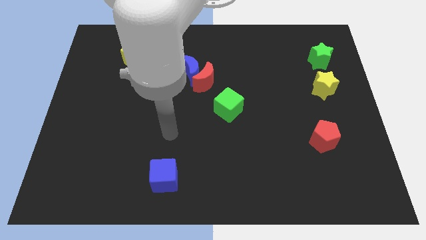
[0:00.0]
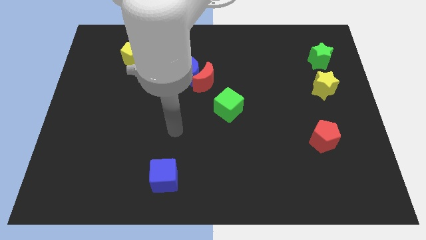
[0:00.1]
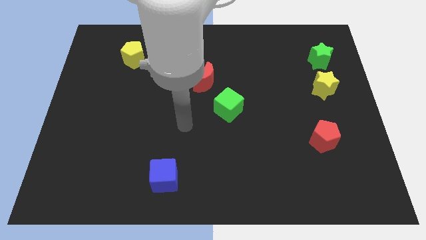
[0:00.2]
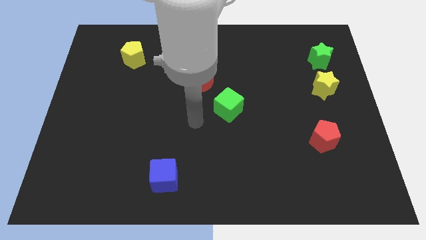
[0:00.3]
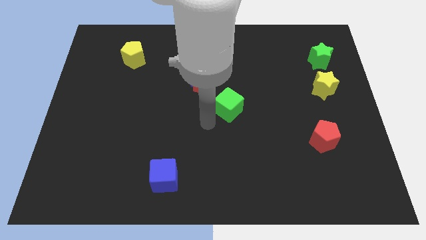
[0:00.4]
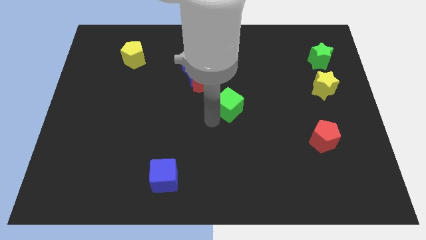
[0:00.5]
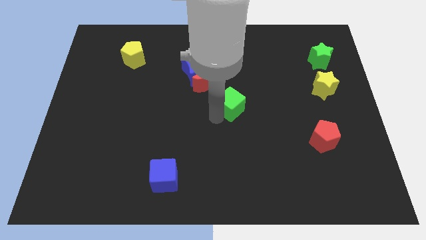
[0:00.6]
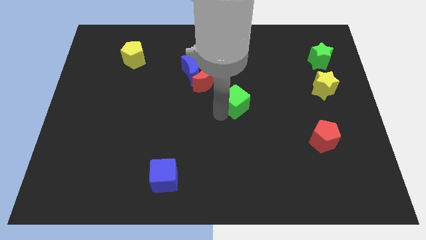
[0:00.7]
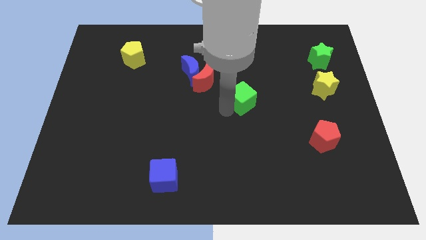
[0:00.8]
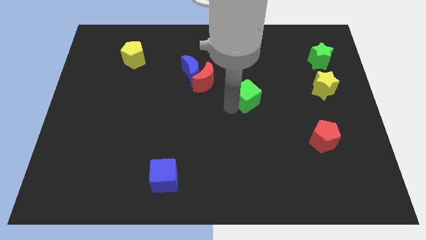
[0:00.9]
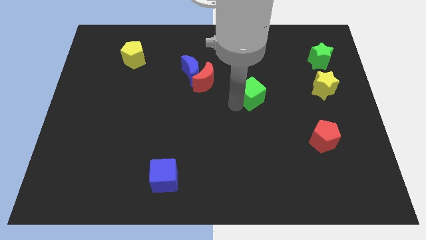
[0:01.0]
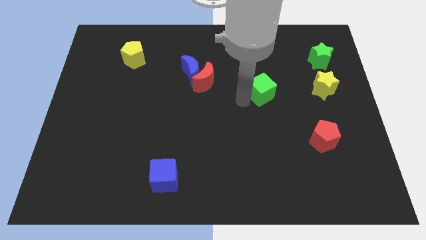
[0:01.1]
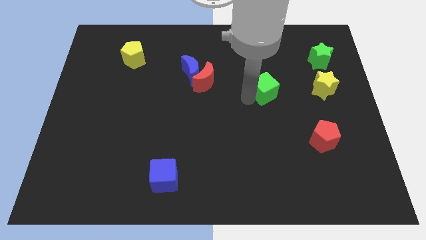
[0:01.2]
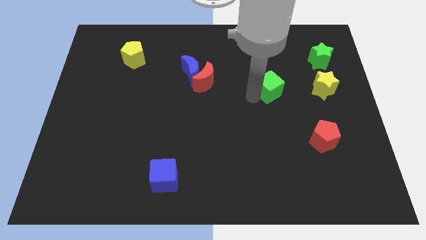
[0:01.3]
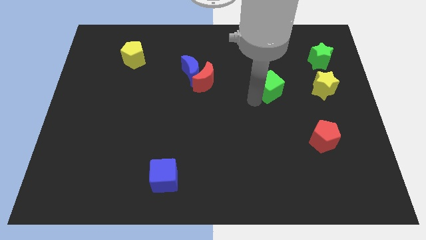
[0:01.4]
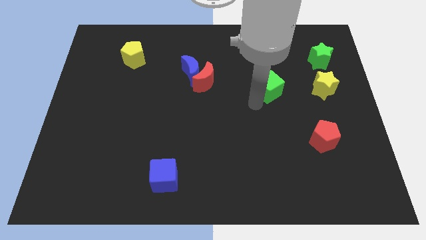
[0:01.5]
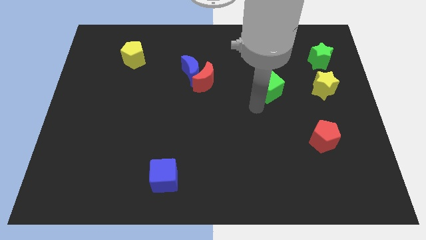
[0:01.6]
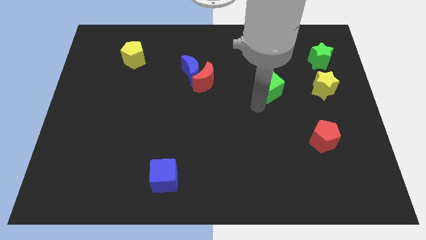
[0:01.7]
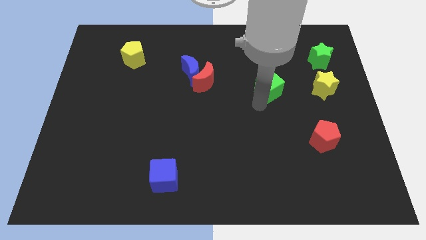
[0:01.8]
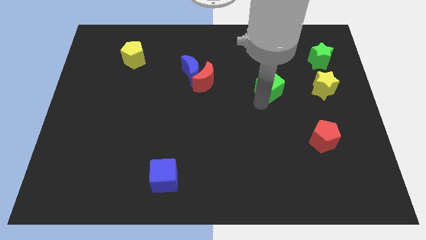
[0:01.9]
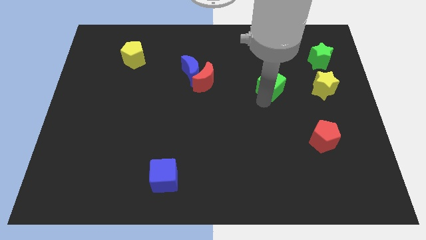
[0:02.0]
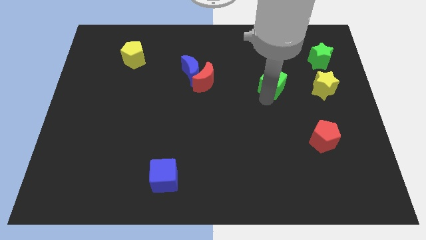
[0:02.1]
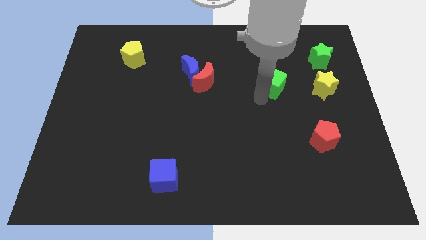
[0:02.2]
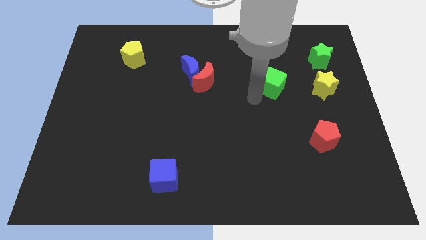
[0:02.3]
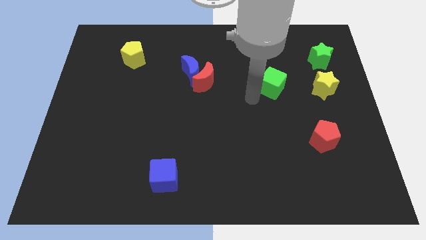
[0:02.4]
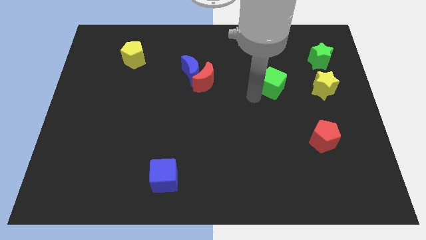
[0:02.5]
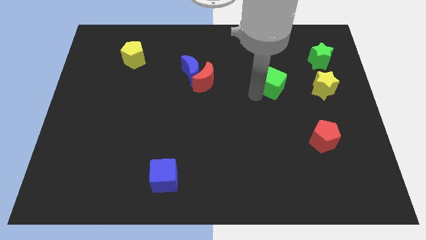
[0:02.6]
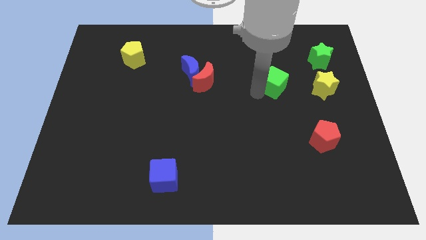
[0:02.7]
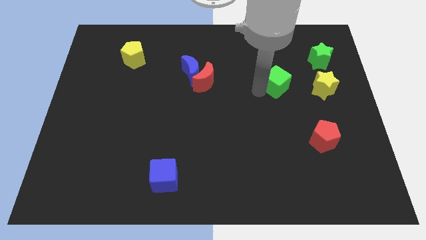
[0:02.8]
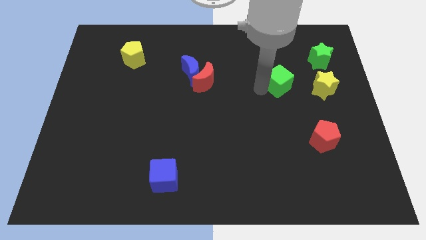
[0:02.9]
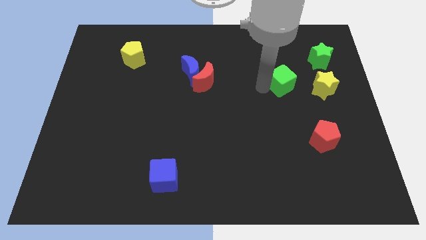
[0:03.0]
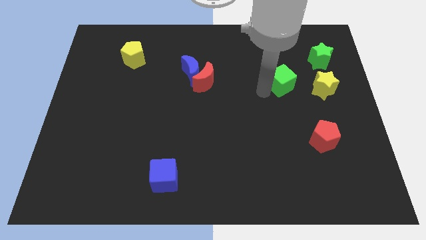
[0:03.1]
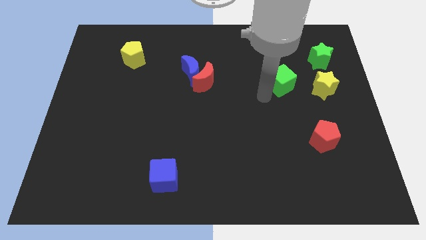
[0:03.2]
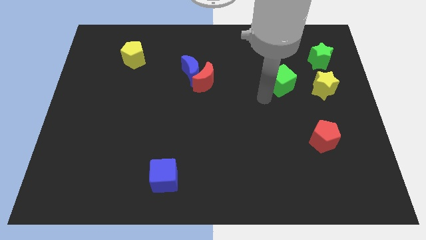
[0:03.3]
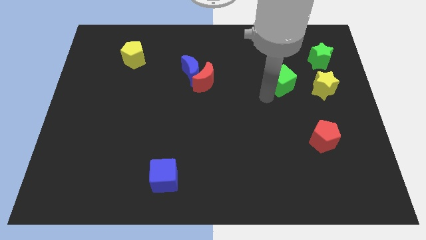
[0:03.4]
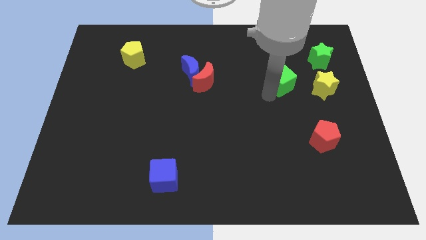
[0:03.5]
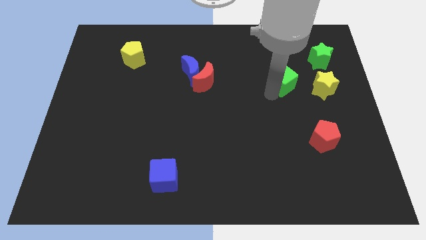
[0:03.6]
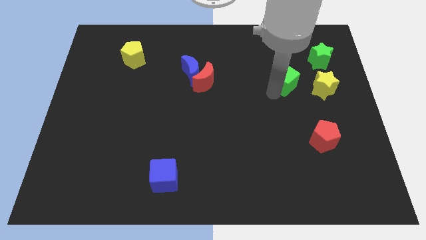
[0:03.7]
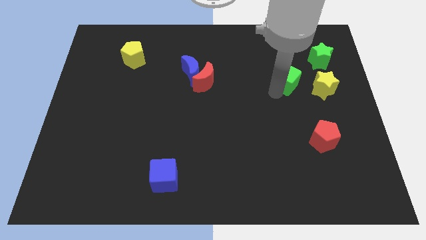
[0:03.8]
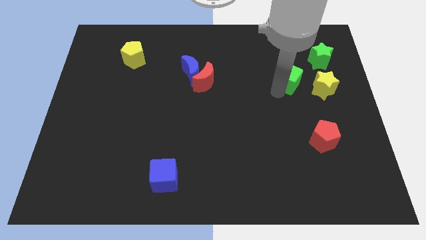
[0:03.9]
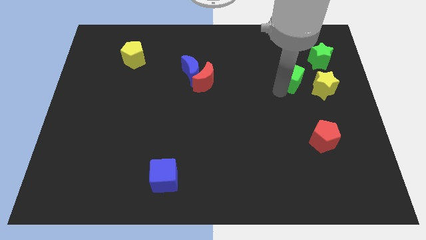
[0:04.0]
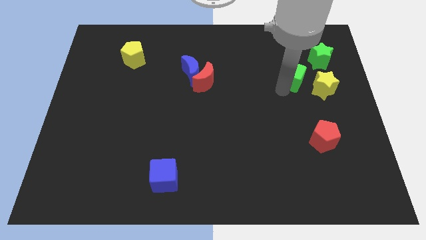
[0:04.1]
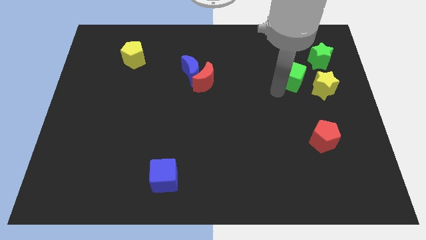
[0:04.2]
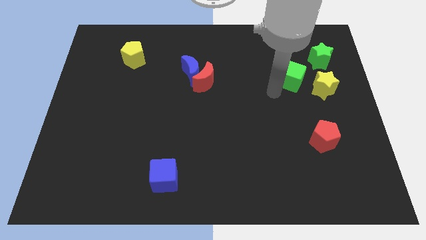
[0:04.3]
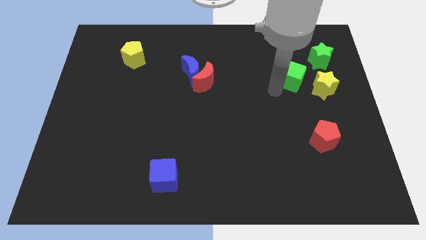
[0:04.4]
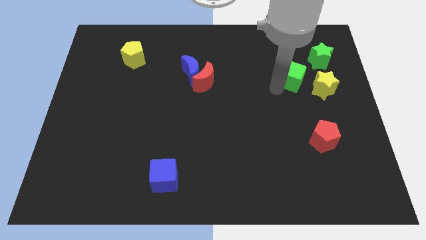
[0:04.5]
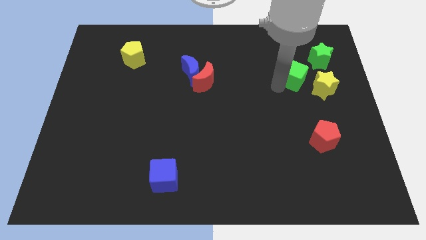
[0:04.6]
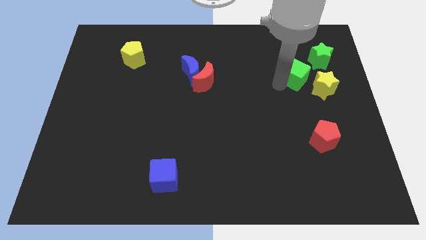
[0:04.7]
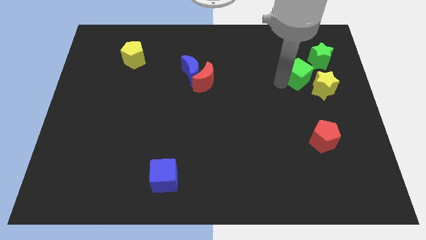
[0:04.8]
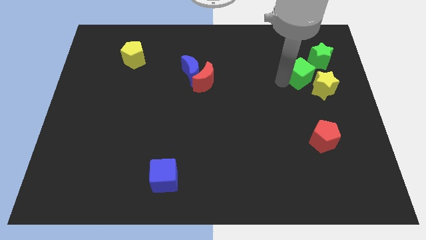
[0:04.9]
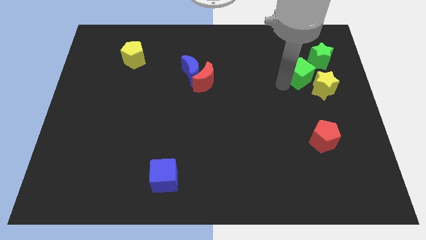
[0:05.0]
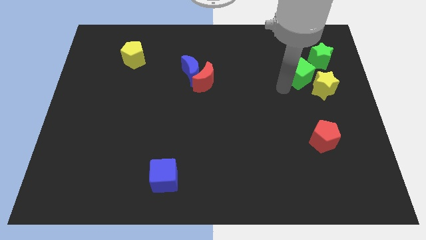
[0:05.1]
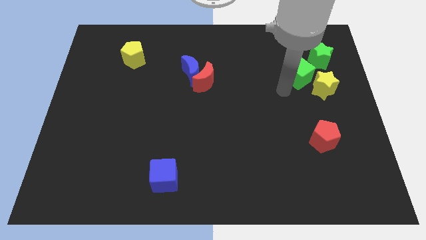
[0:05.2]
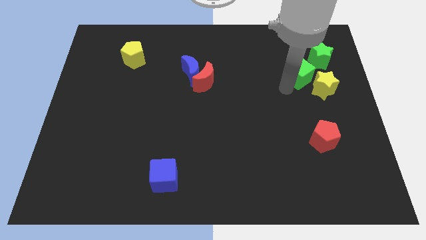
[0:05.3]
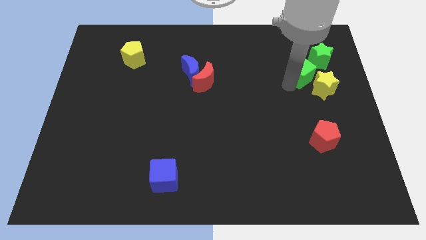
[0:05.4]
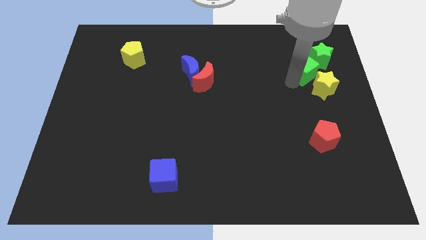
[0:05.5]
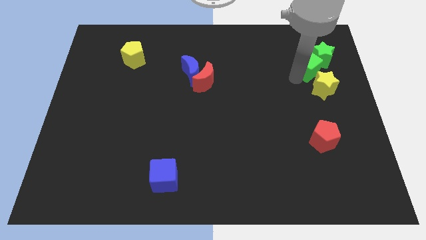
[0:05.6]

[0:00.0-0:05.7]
put the green cube next to the green star

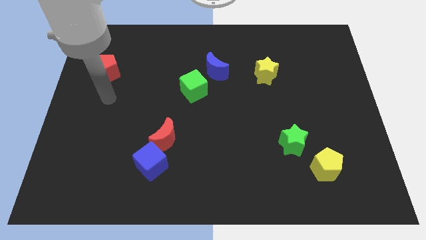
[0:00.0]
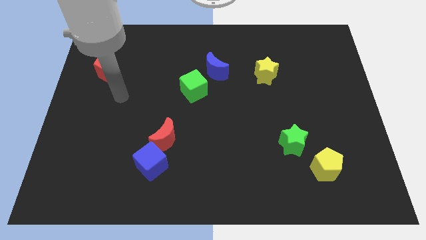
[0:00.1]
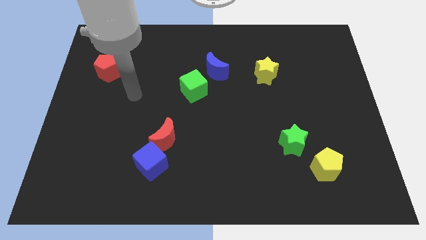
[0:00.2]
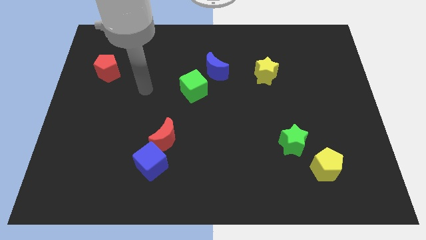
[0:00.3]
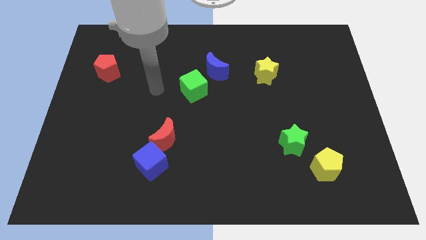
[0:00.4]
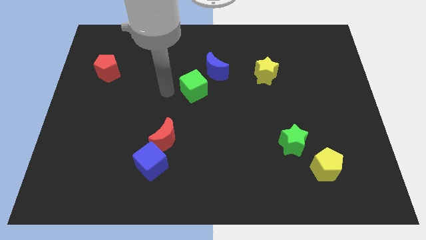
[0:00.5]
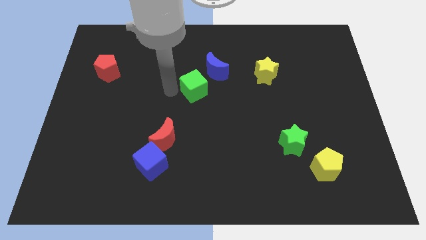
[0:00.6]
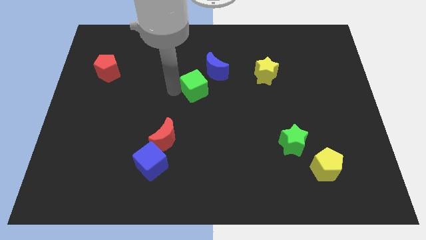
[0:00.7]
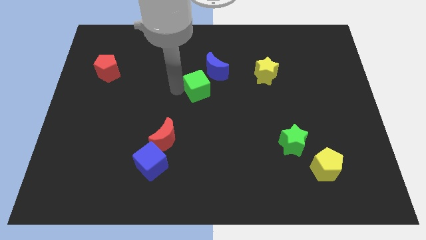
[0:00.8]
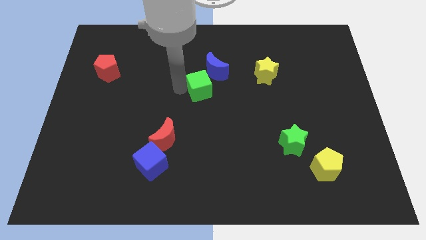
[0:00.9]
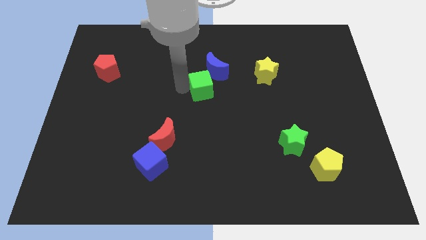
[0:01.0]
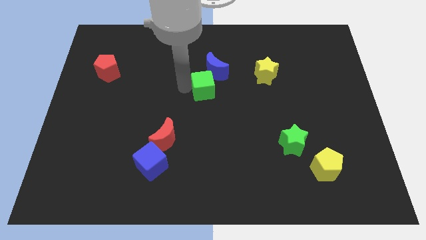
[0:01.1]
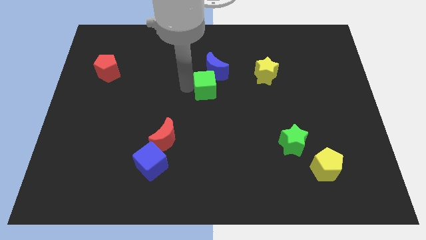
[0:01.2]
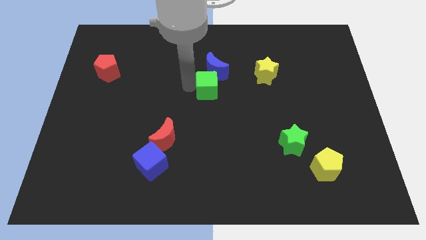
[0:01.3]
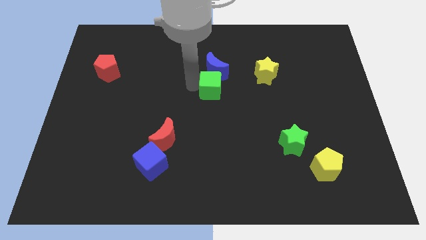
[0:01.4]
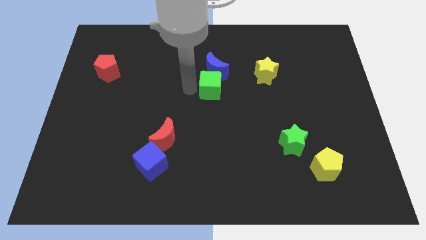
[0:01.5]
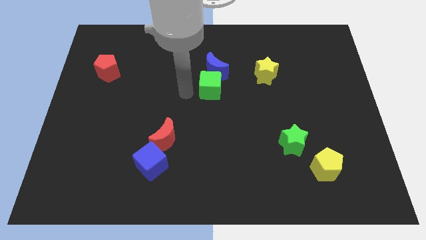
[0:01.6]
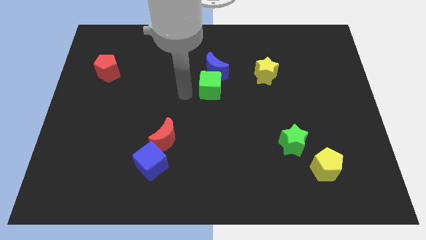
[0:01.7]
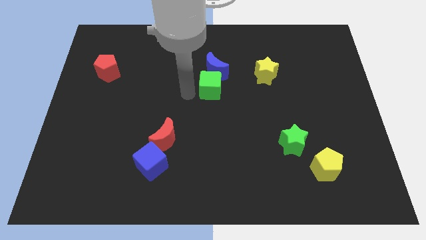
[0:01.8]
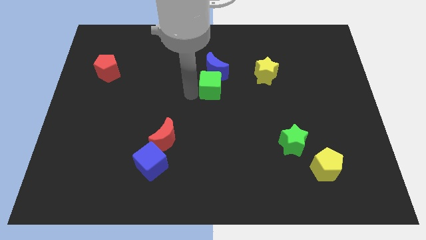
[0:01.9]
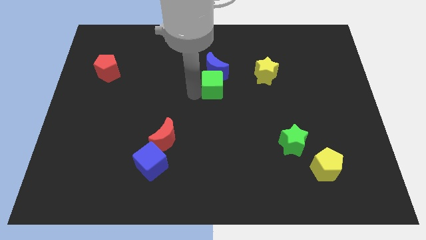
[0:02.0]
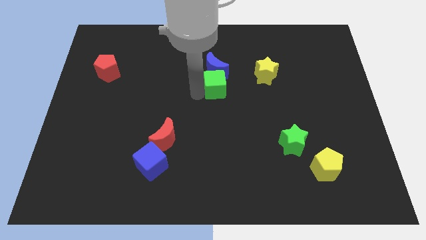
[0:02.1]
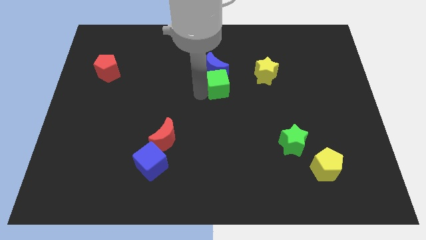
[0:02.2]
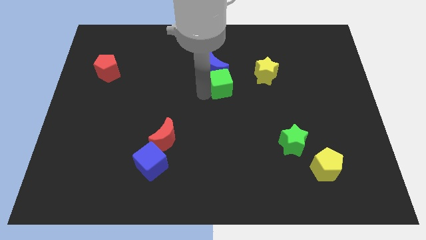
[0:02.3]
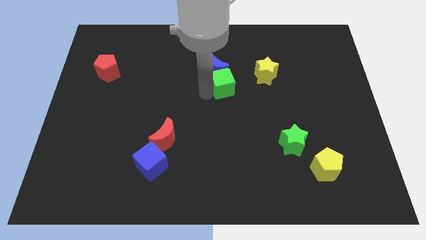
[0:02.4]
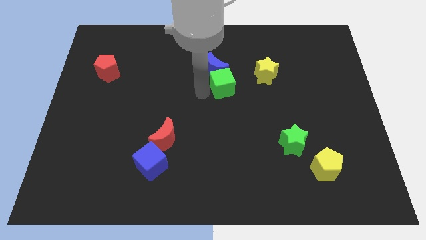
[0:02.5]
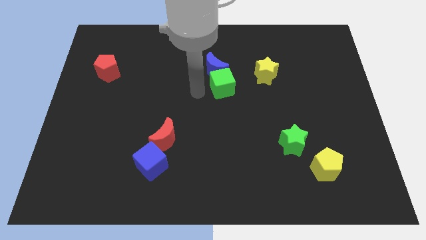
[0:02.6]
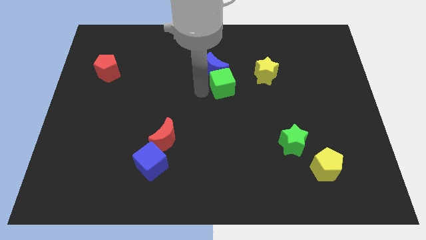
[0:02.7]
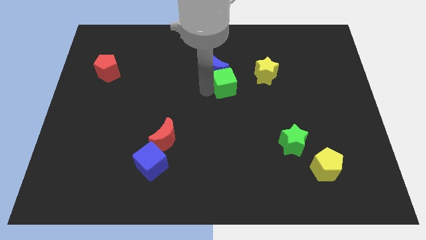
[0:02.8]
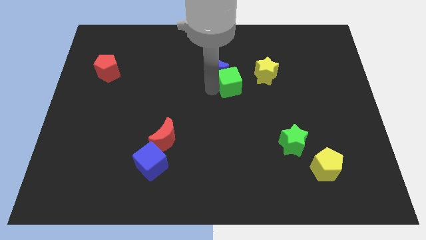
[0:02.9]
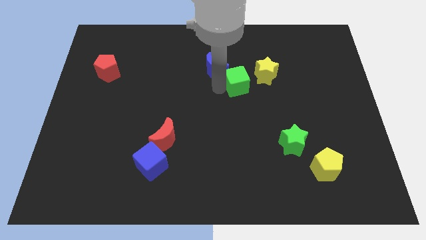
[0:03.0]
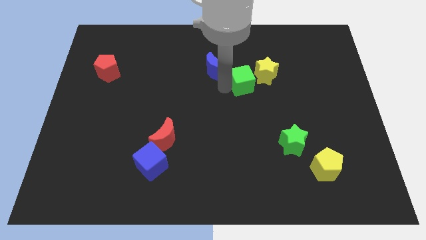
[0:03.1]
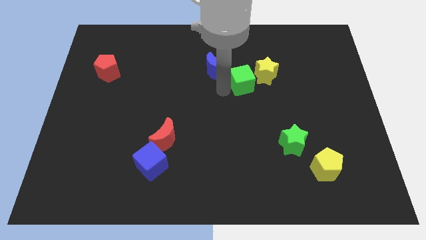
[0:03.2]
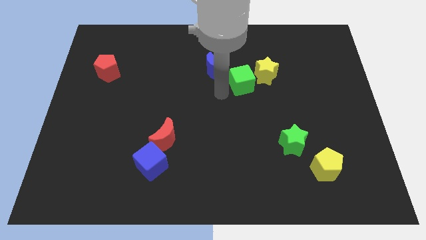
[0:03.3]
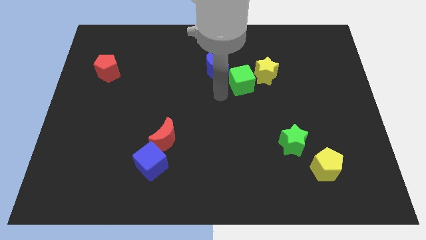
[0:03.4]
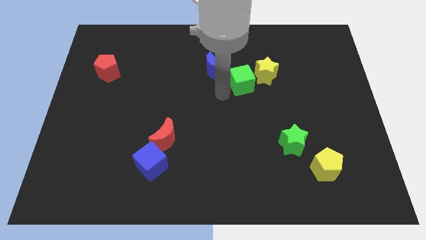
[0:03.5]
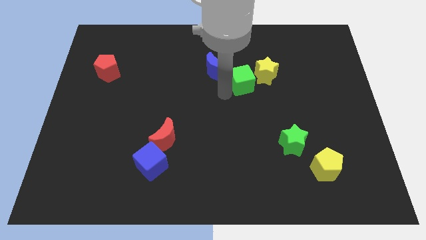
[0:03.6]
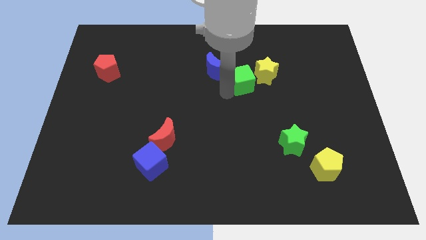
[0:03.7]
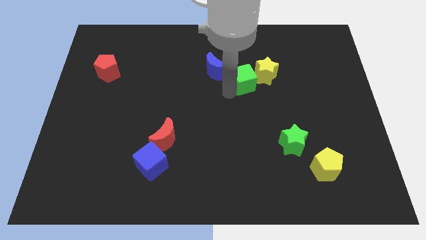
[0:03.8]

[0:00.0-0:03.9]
move the green cube to the yellow star
